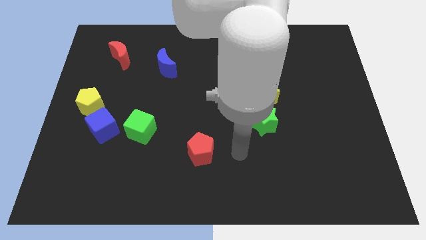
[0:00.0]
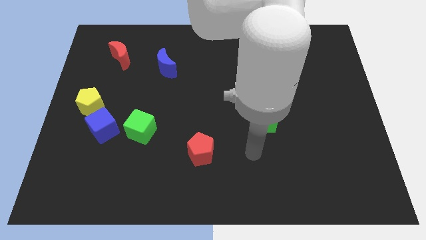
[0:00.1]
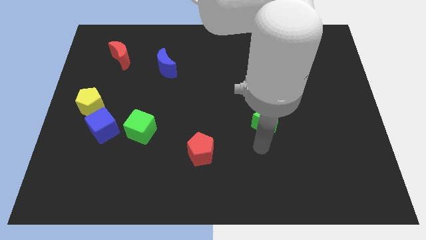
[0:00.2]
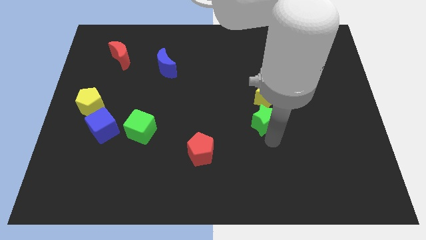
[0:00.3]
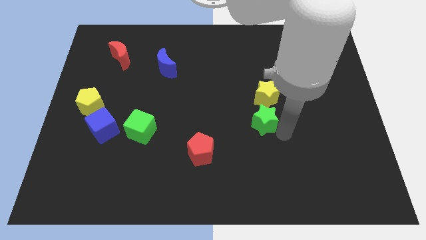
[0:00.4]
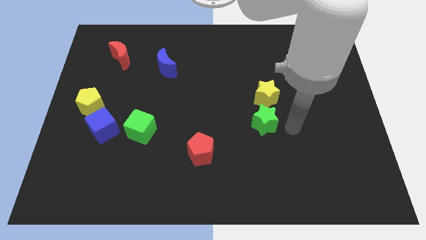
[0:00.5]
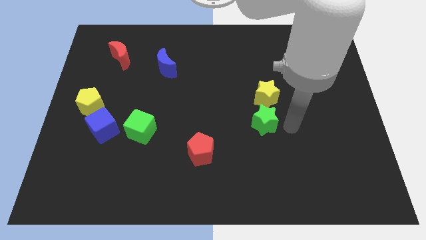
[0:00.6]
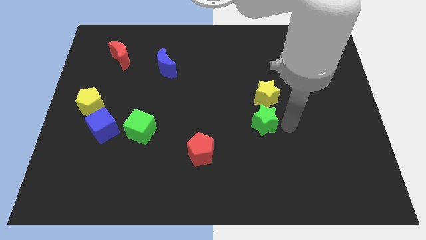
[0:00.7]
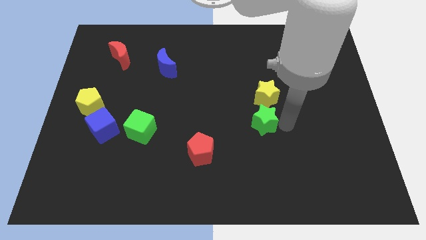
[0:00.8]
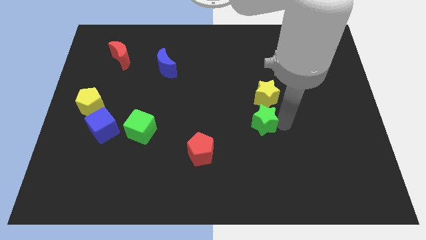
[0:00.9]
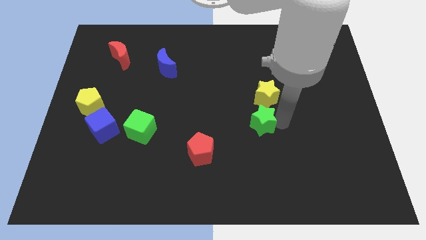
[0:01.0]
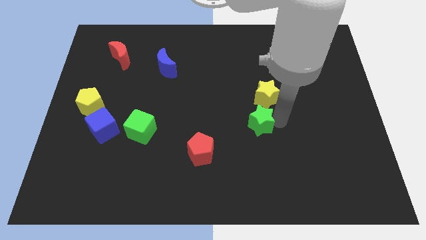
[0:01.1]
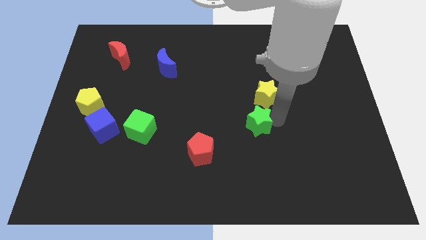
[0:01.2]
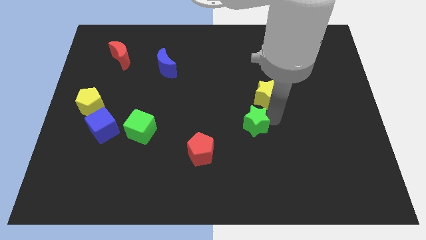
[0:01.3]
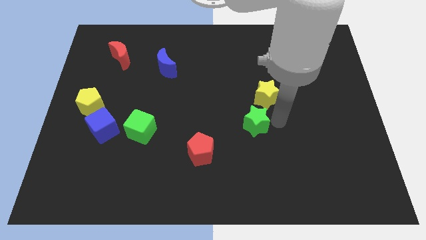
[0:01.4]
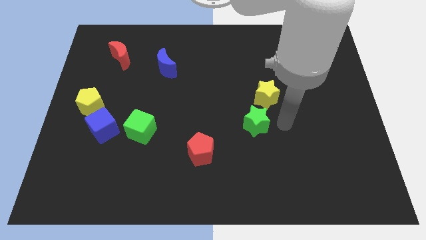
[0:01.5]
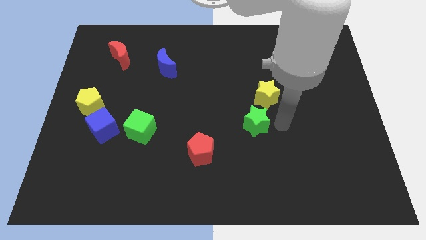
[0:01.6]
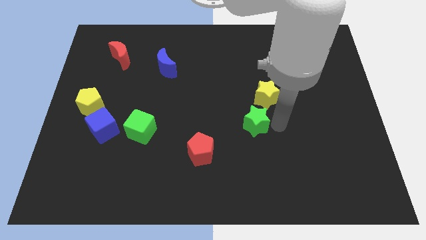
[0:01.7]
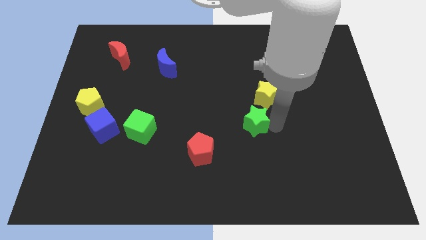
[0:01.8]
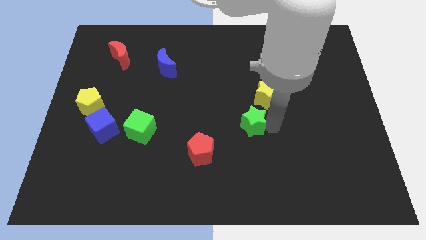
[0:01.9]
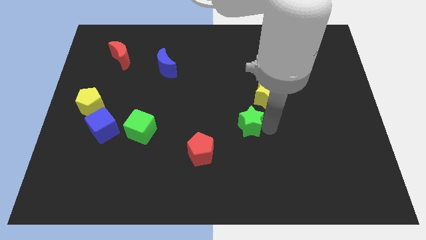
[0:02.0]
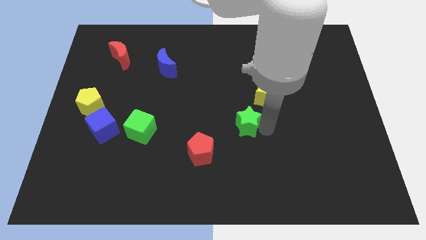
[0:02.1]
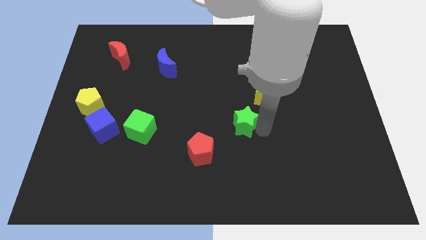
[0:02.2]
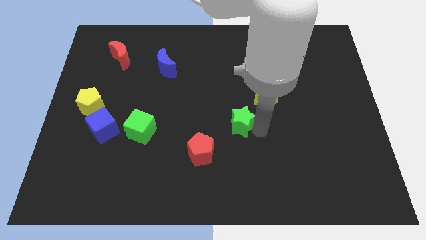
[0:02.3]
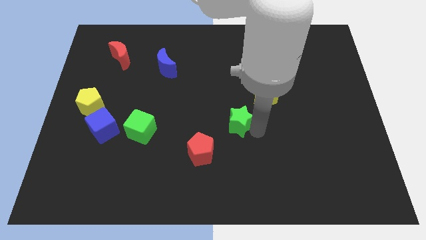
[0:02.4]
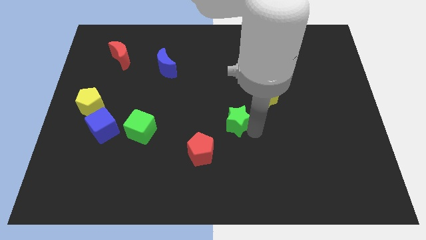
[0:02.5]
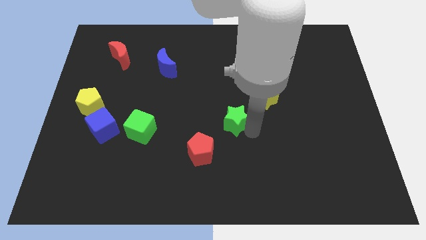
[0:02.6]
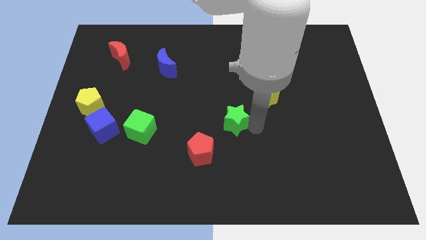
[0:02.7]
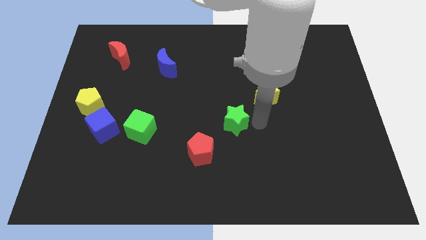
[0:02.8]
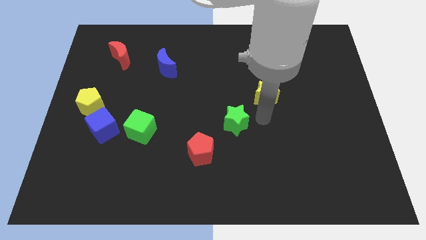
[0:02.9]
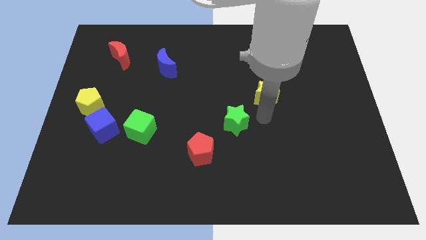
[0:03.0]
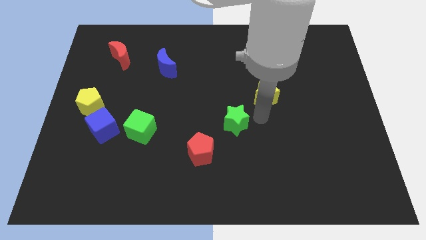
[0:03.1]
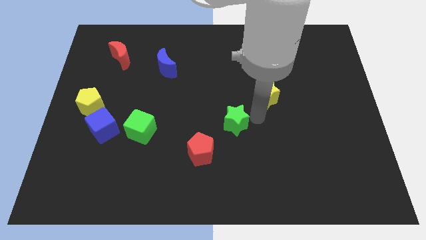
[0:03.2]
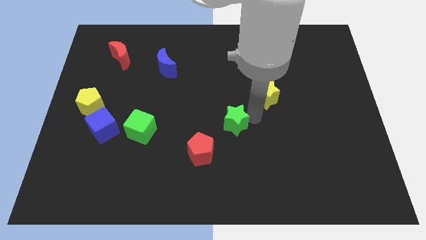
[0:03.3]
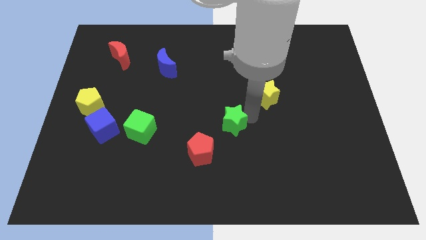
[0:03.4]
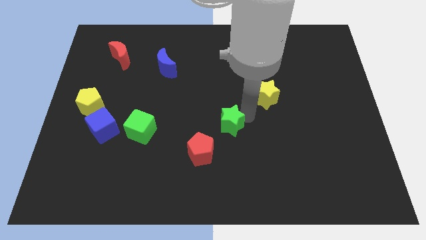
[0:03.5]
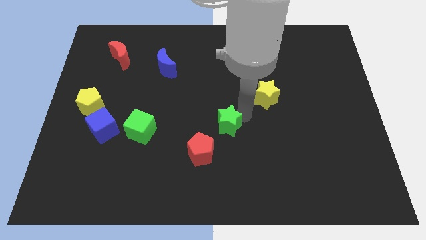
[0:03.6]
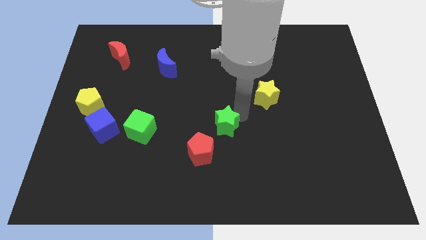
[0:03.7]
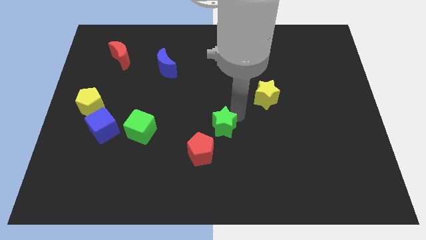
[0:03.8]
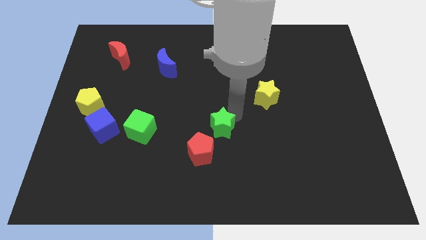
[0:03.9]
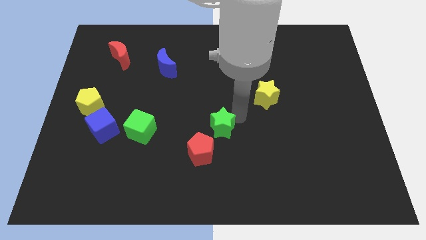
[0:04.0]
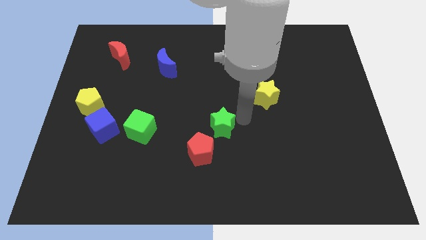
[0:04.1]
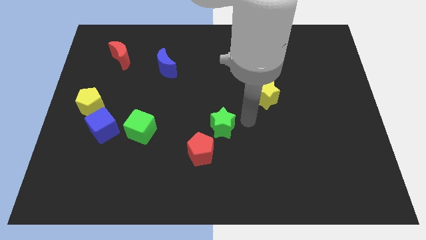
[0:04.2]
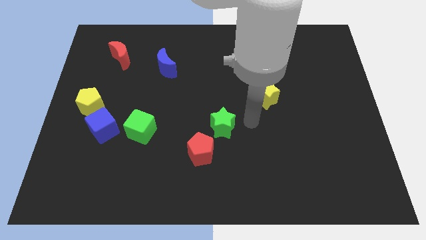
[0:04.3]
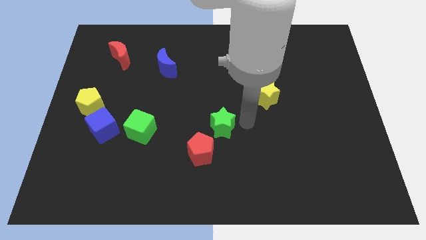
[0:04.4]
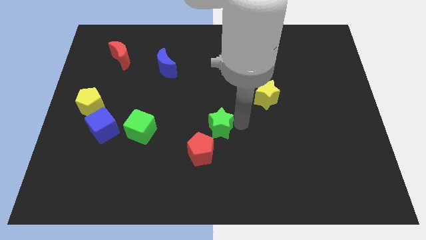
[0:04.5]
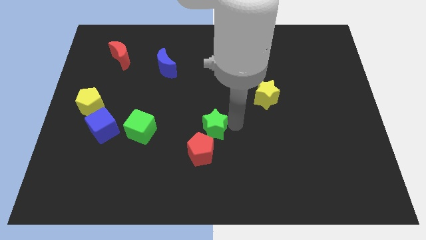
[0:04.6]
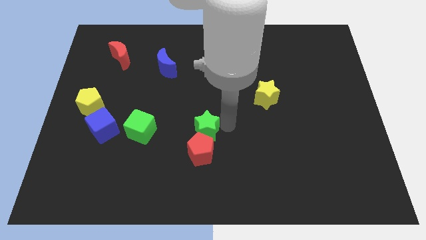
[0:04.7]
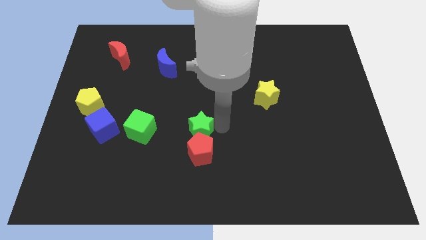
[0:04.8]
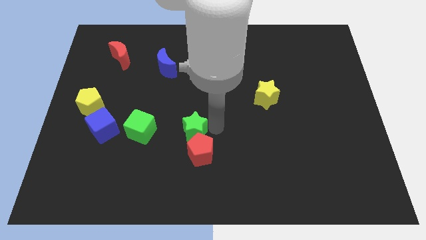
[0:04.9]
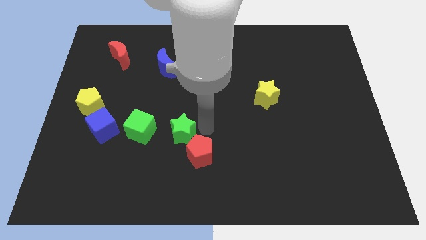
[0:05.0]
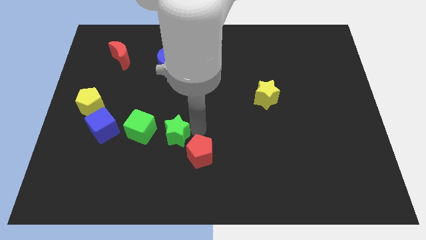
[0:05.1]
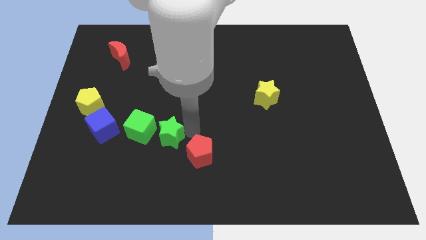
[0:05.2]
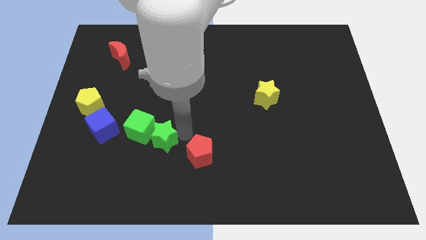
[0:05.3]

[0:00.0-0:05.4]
slide the green star close to the green cube

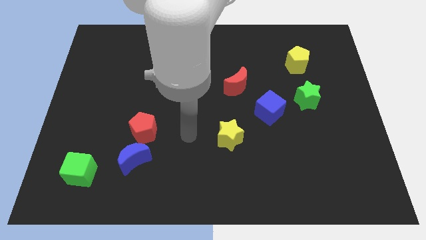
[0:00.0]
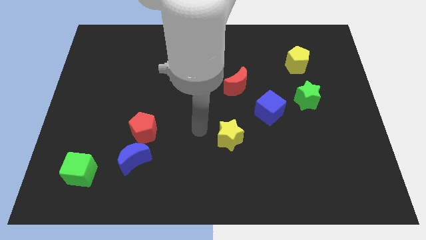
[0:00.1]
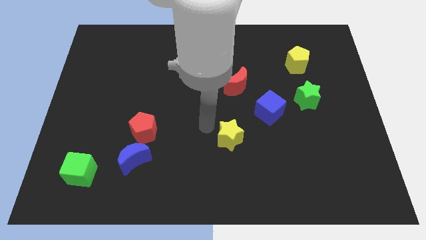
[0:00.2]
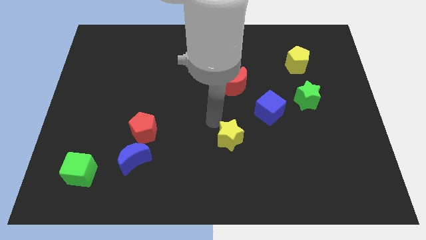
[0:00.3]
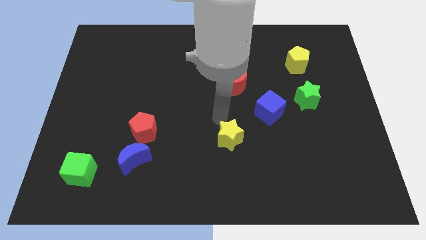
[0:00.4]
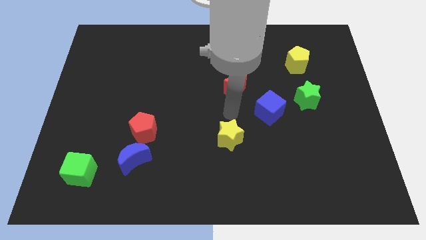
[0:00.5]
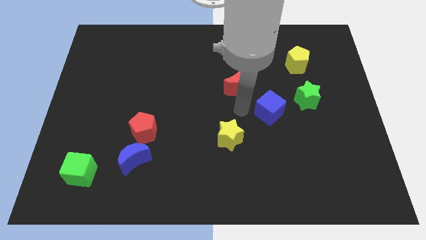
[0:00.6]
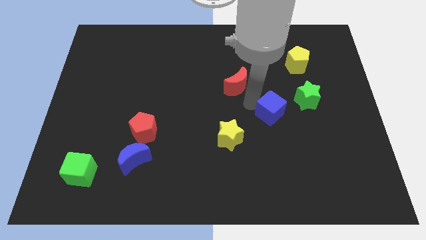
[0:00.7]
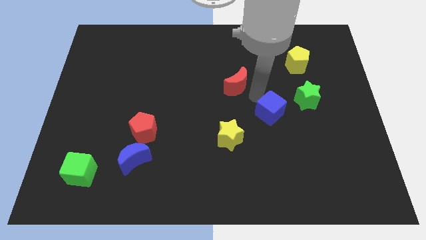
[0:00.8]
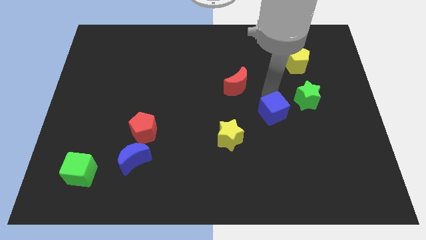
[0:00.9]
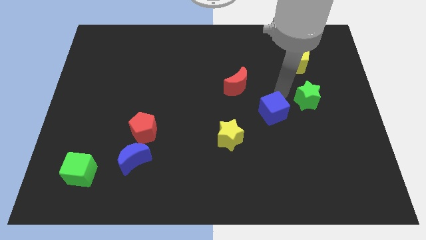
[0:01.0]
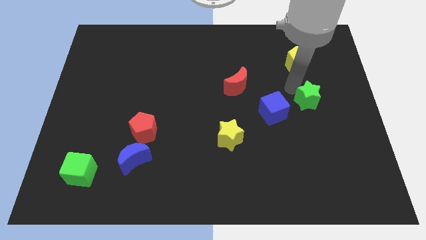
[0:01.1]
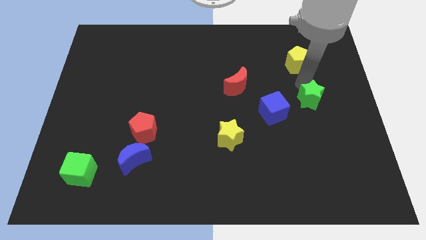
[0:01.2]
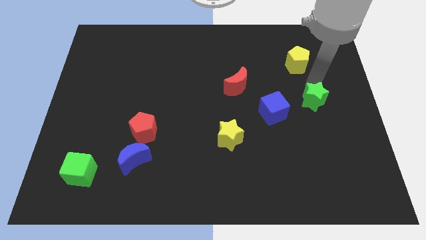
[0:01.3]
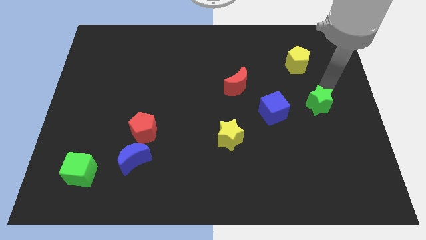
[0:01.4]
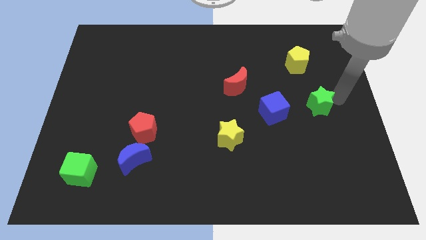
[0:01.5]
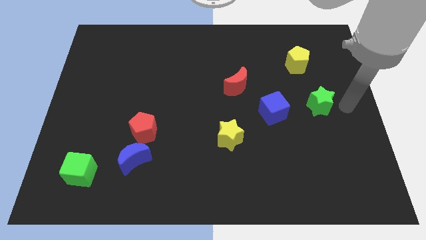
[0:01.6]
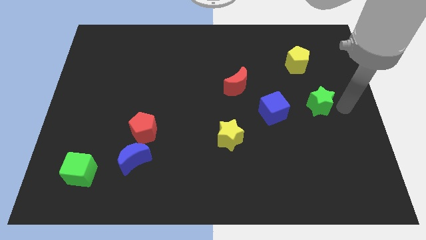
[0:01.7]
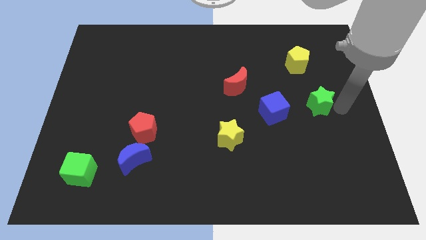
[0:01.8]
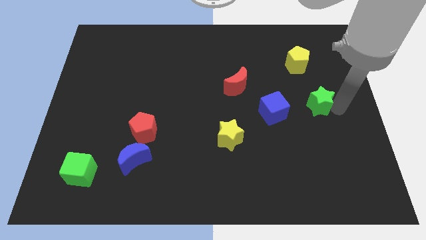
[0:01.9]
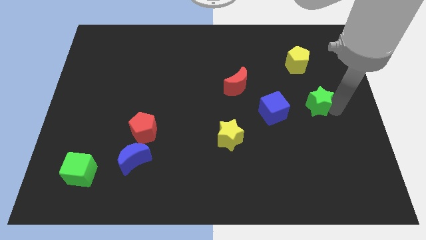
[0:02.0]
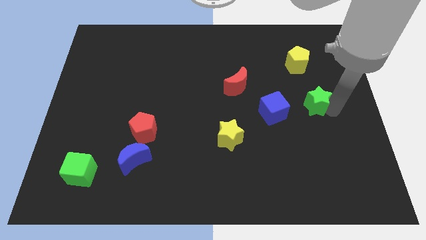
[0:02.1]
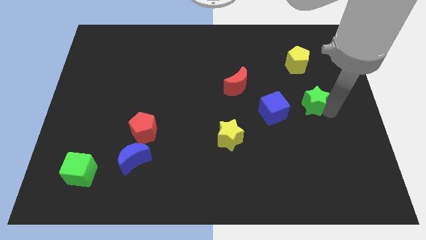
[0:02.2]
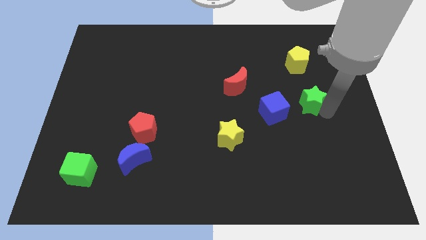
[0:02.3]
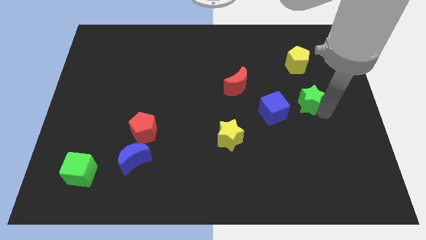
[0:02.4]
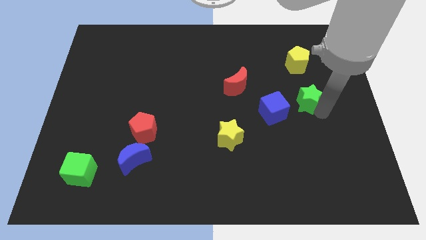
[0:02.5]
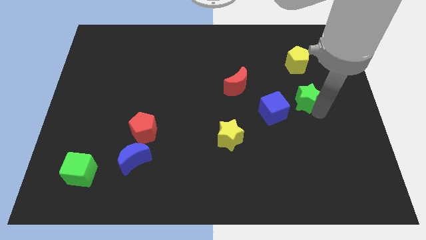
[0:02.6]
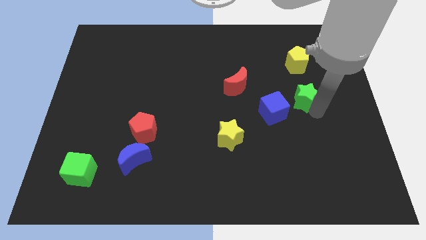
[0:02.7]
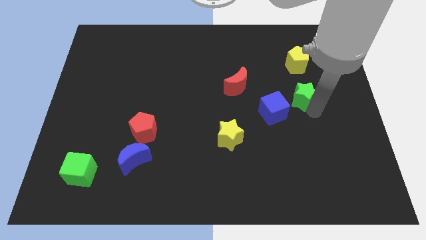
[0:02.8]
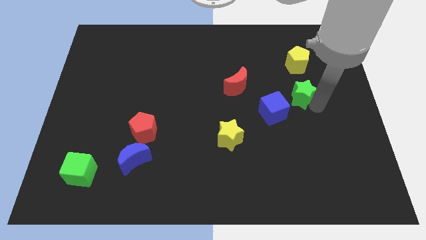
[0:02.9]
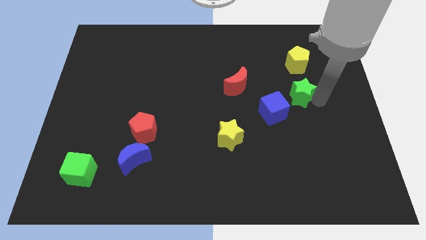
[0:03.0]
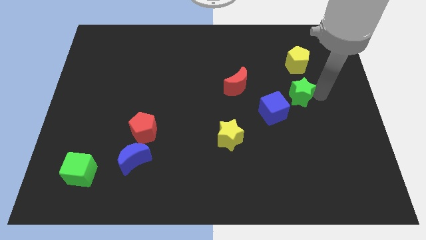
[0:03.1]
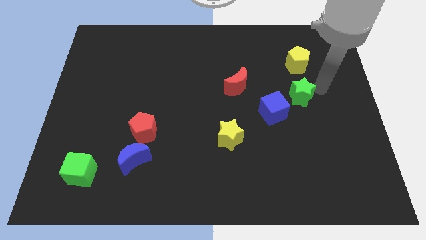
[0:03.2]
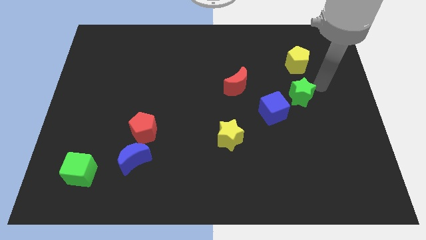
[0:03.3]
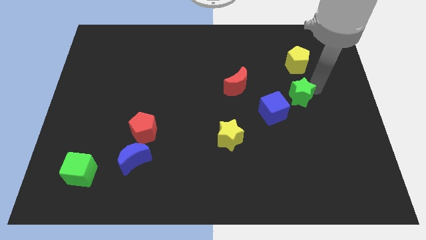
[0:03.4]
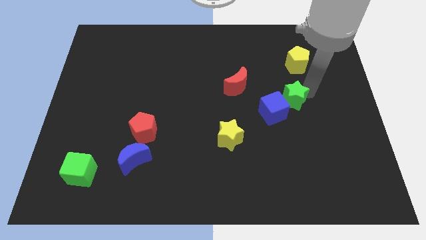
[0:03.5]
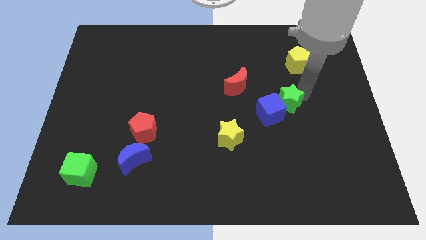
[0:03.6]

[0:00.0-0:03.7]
slide the green star close to the blue cube
